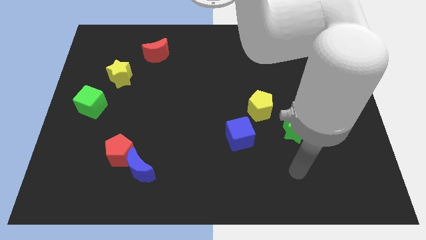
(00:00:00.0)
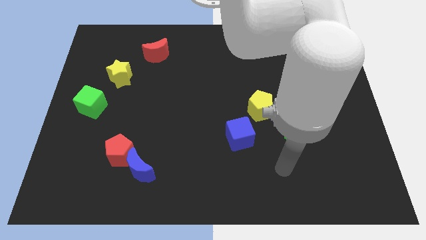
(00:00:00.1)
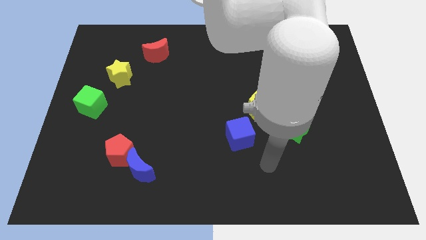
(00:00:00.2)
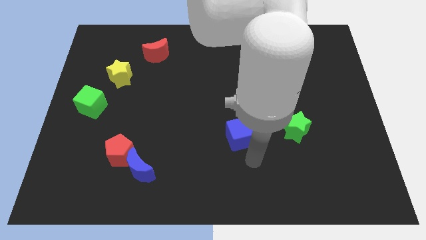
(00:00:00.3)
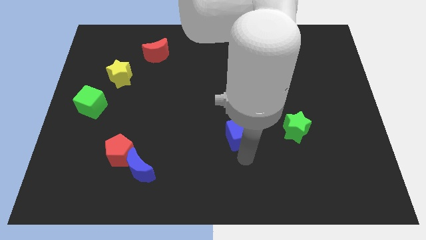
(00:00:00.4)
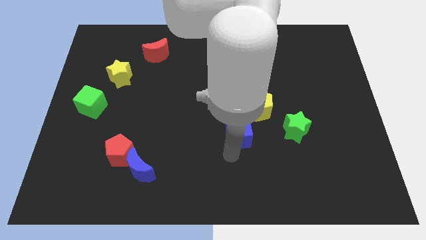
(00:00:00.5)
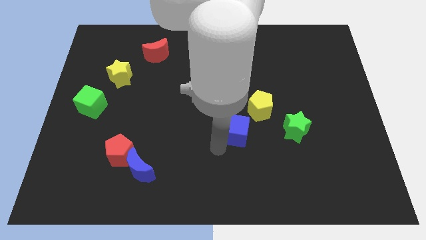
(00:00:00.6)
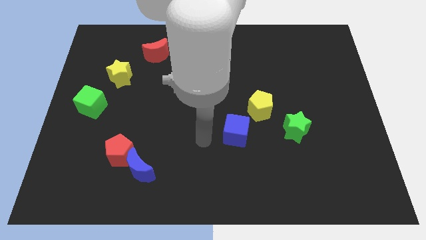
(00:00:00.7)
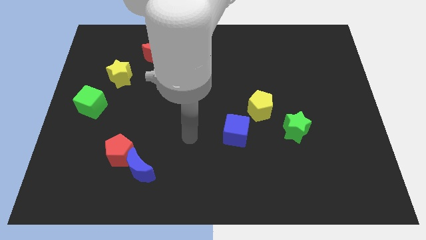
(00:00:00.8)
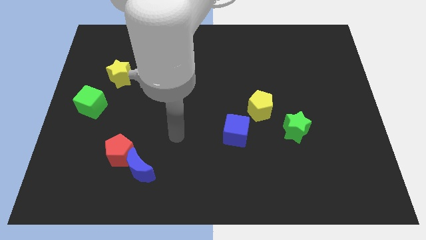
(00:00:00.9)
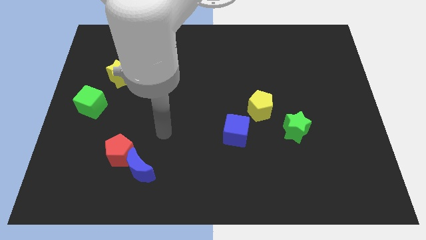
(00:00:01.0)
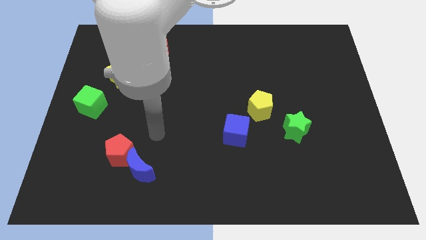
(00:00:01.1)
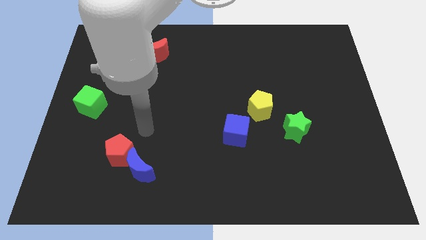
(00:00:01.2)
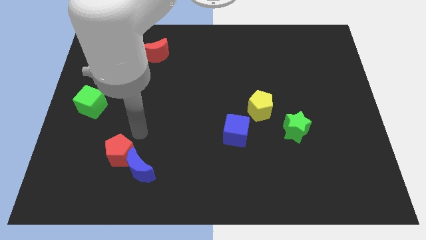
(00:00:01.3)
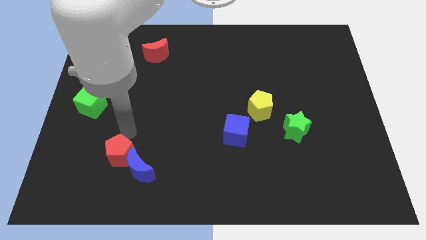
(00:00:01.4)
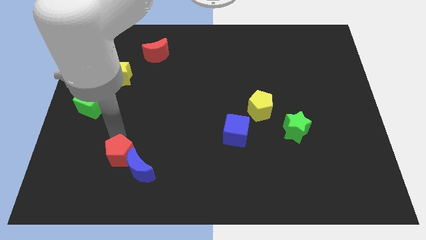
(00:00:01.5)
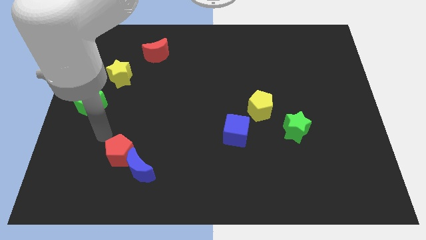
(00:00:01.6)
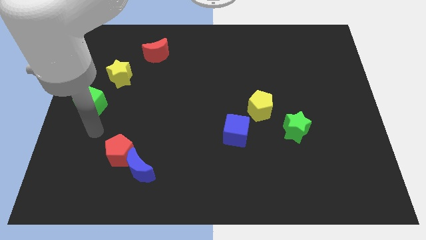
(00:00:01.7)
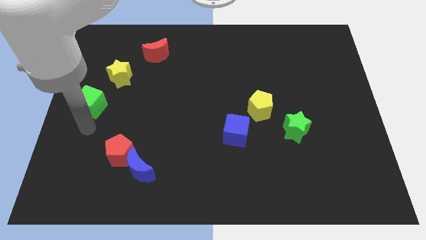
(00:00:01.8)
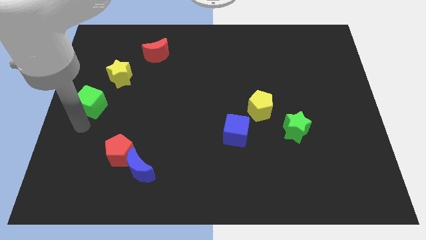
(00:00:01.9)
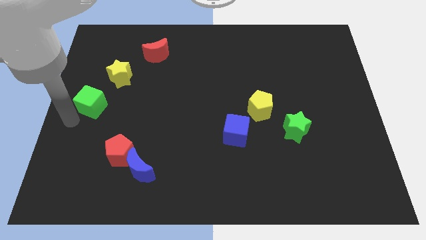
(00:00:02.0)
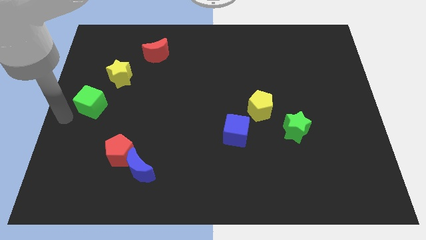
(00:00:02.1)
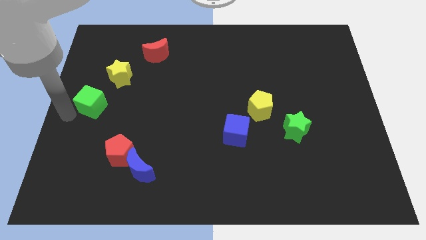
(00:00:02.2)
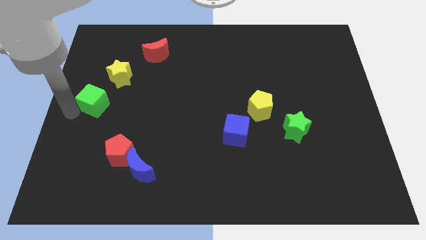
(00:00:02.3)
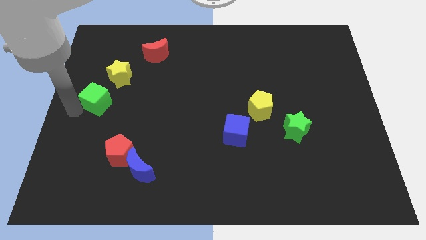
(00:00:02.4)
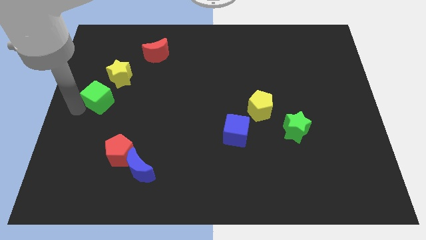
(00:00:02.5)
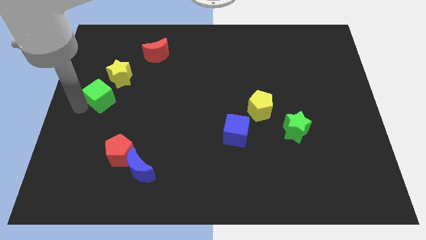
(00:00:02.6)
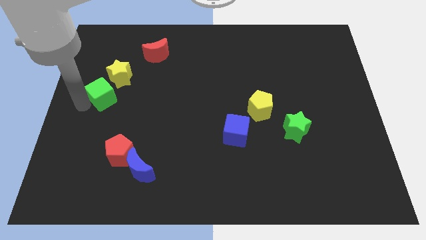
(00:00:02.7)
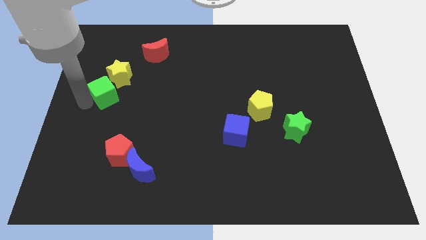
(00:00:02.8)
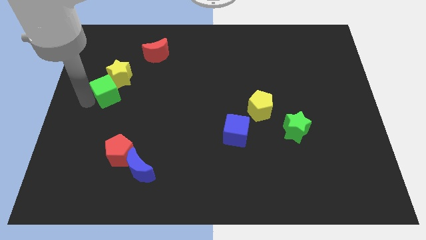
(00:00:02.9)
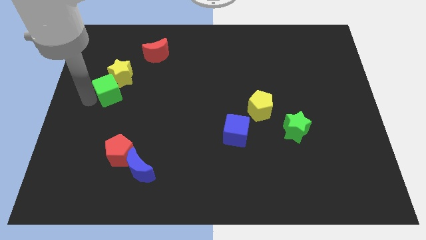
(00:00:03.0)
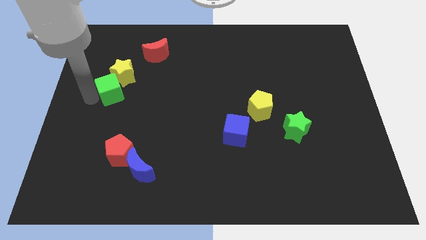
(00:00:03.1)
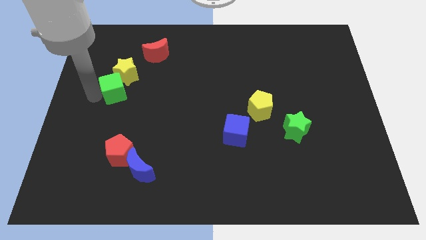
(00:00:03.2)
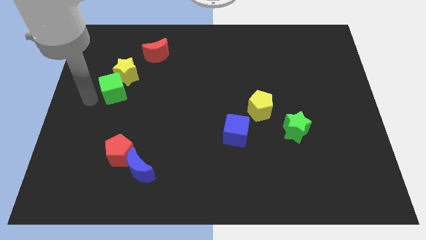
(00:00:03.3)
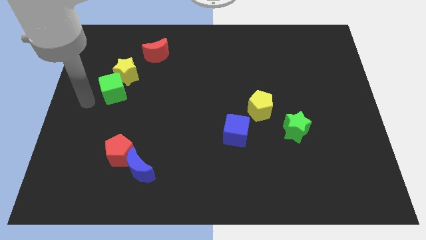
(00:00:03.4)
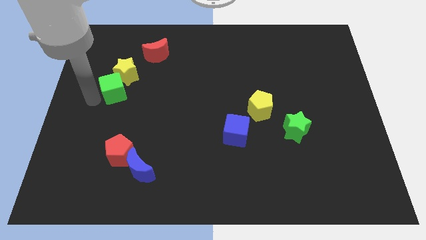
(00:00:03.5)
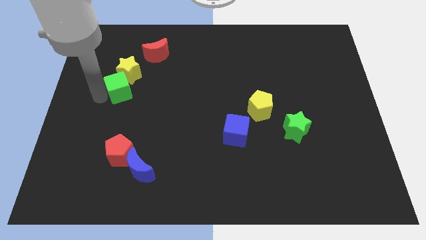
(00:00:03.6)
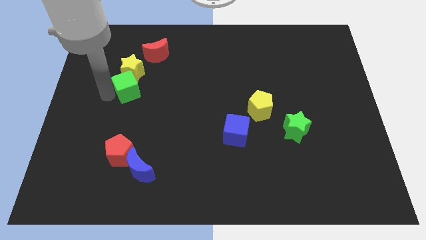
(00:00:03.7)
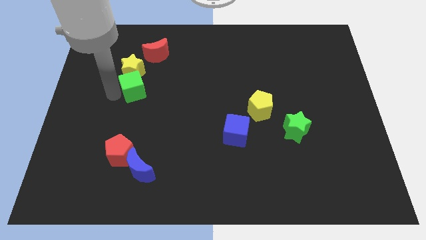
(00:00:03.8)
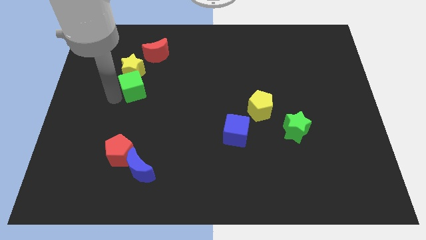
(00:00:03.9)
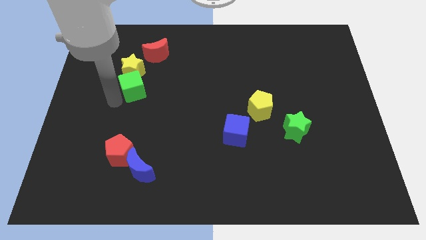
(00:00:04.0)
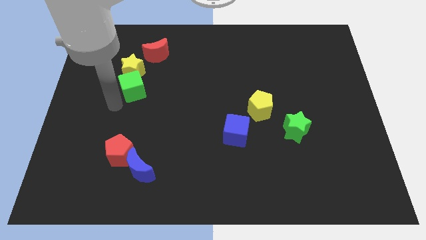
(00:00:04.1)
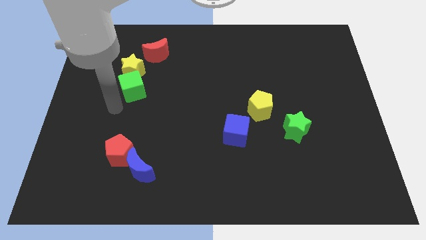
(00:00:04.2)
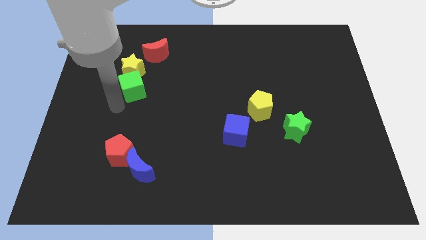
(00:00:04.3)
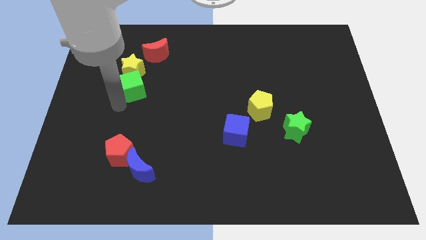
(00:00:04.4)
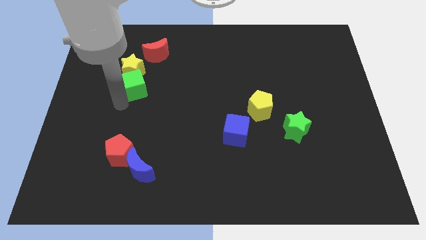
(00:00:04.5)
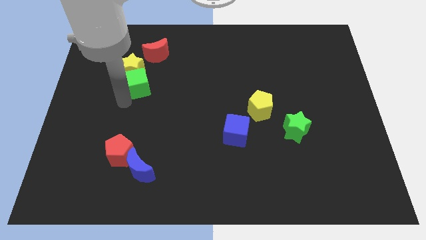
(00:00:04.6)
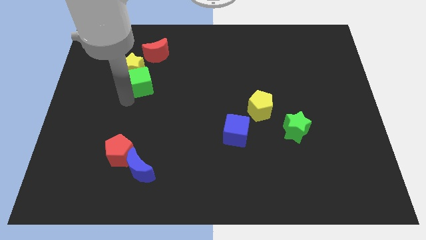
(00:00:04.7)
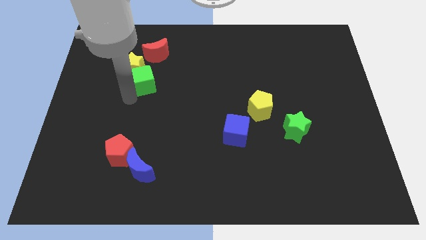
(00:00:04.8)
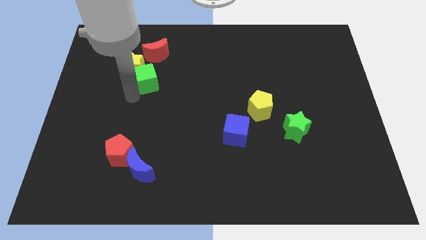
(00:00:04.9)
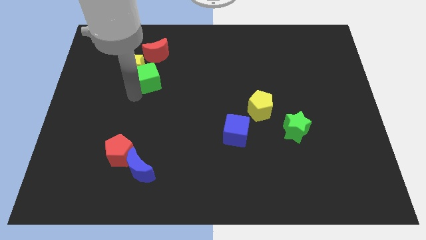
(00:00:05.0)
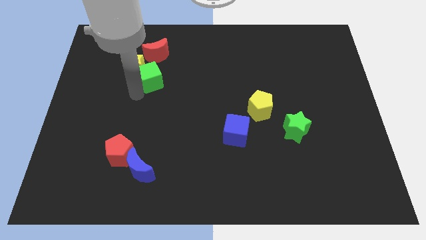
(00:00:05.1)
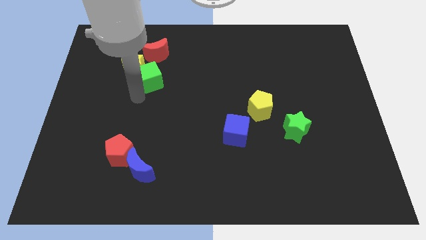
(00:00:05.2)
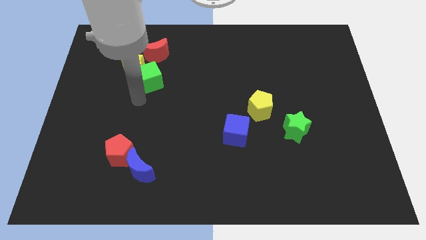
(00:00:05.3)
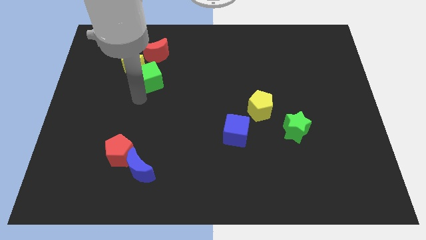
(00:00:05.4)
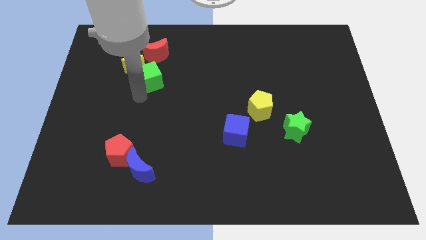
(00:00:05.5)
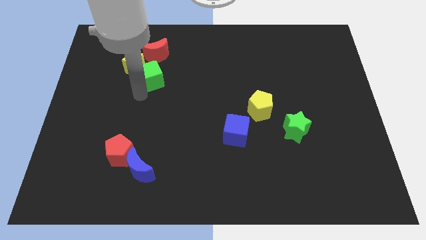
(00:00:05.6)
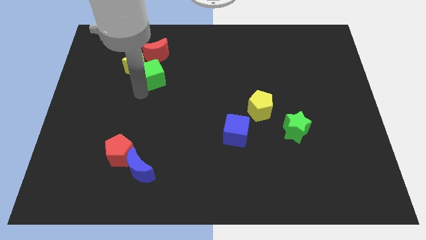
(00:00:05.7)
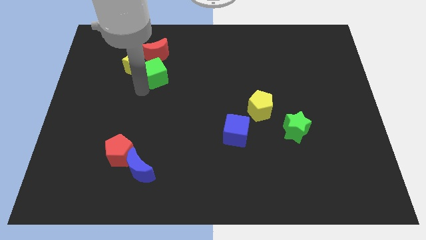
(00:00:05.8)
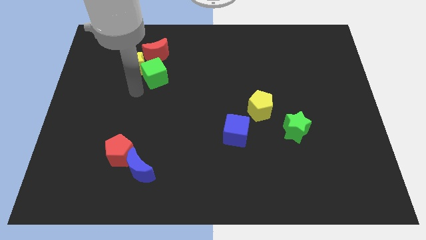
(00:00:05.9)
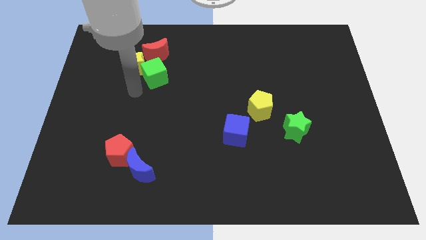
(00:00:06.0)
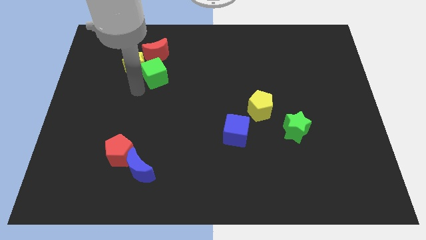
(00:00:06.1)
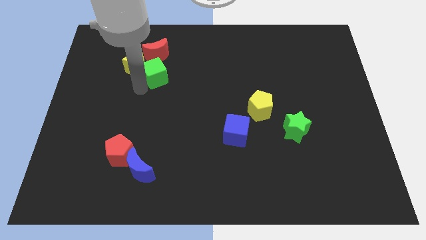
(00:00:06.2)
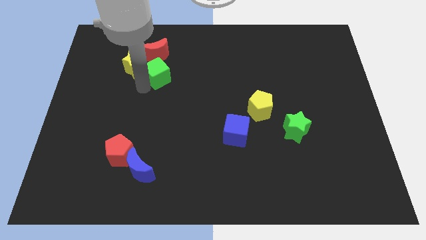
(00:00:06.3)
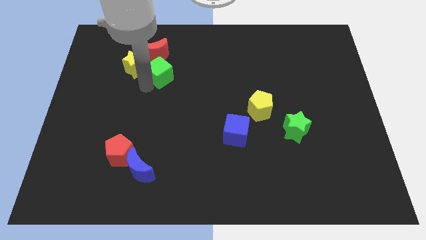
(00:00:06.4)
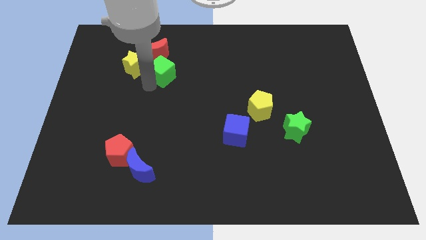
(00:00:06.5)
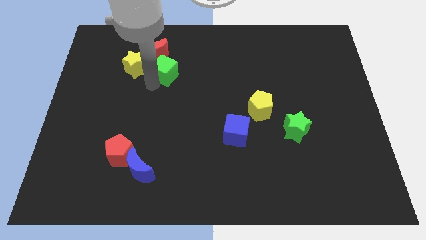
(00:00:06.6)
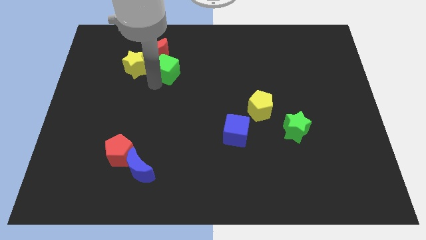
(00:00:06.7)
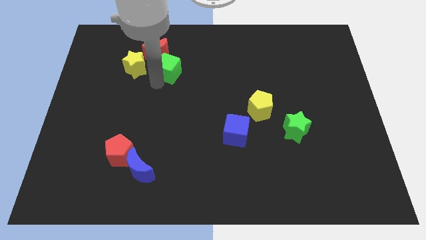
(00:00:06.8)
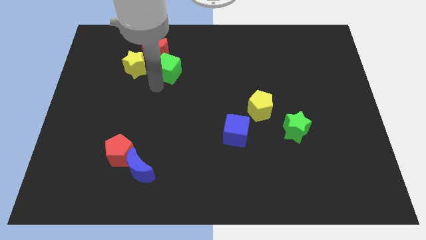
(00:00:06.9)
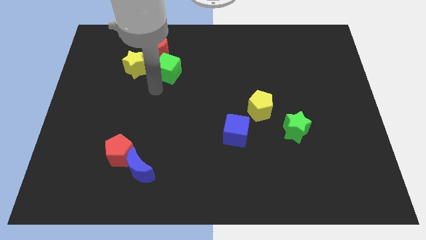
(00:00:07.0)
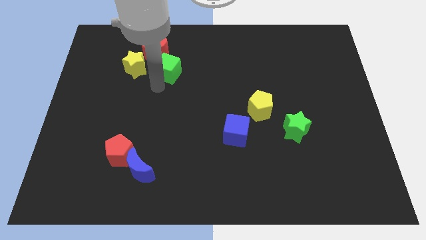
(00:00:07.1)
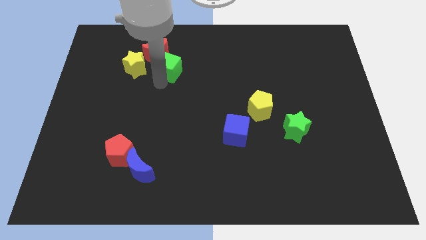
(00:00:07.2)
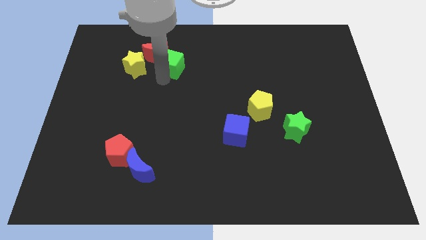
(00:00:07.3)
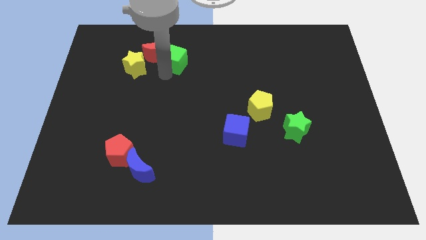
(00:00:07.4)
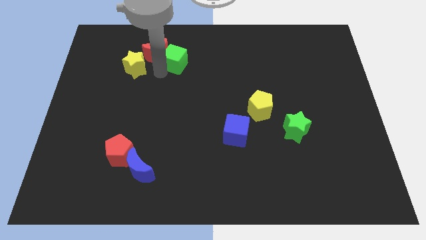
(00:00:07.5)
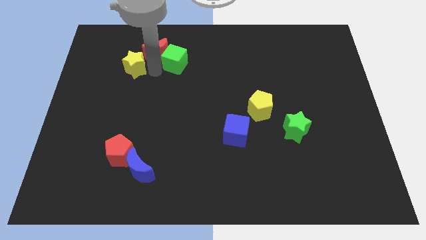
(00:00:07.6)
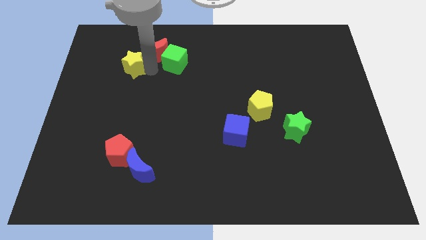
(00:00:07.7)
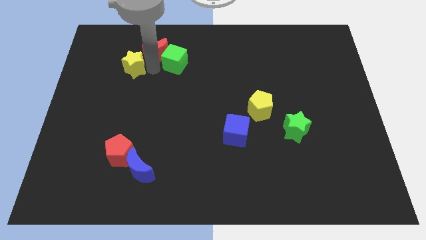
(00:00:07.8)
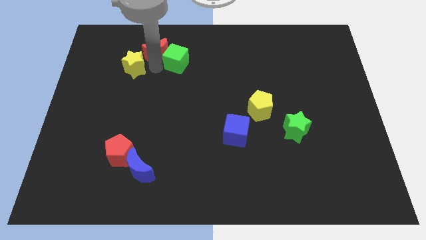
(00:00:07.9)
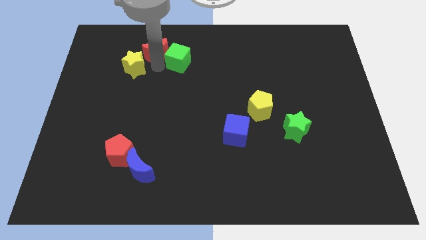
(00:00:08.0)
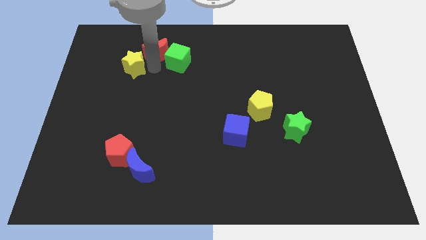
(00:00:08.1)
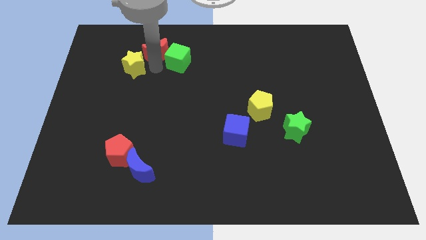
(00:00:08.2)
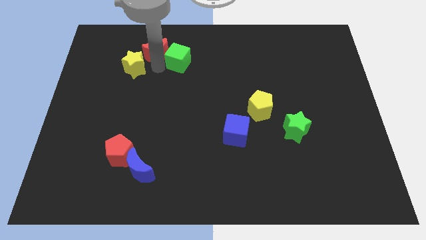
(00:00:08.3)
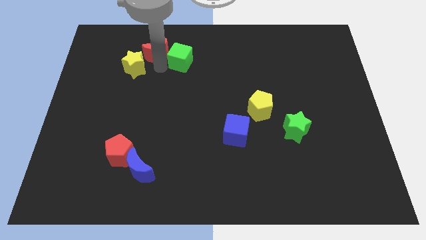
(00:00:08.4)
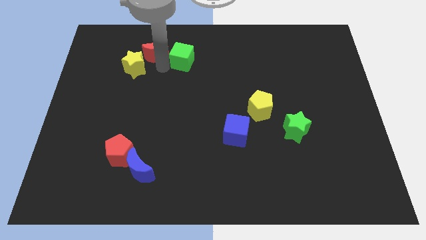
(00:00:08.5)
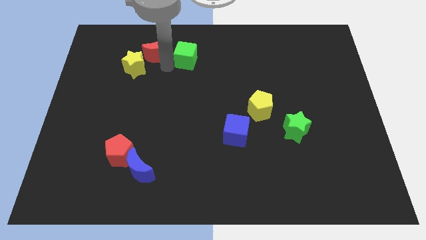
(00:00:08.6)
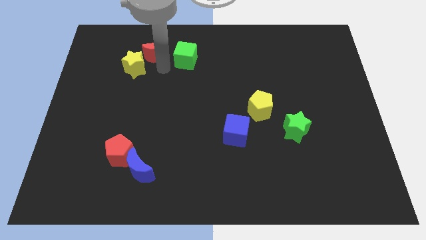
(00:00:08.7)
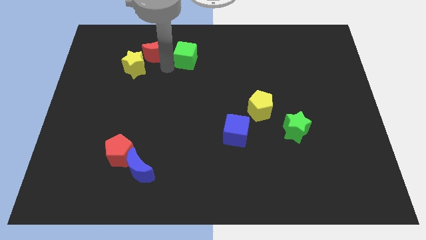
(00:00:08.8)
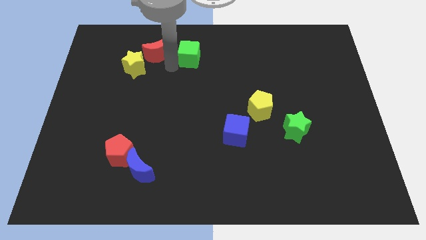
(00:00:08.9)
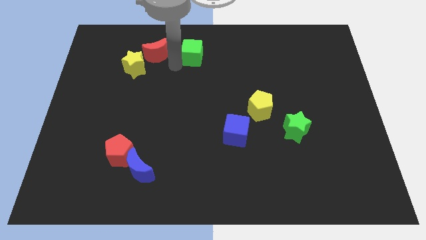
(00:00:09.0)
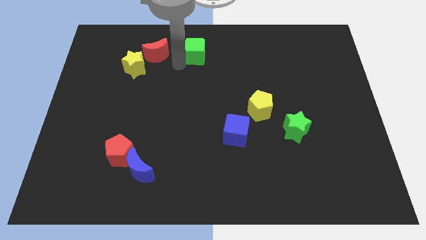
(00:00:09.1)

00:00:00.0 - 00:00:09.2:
move the green cube to the top side
